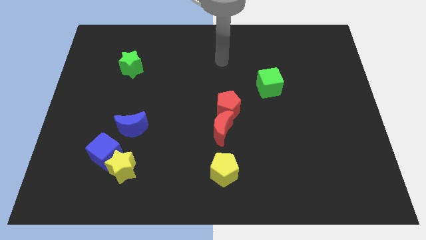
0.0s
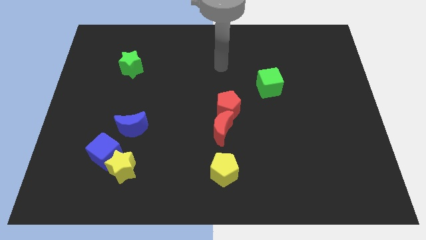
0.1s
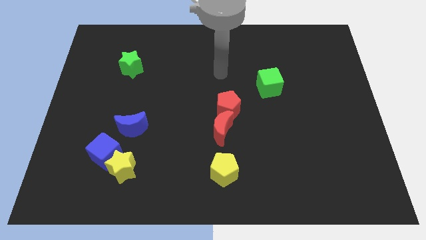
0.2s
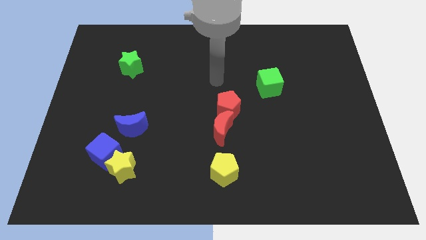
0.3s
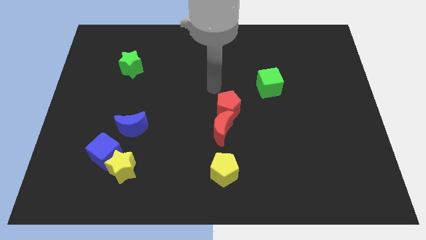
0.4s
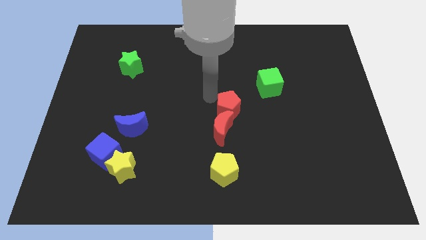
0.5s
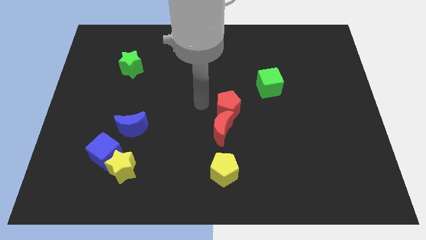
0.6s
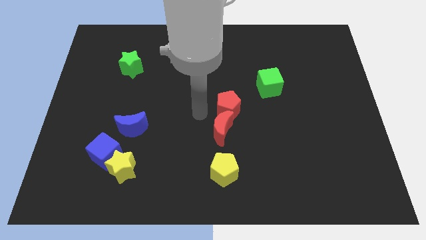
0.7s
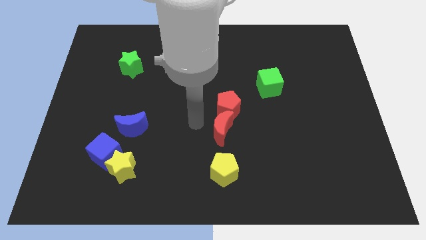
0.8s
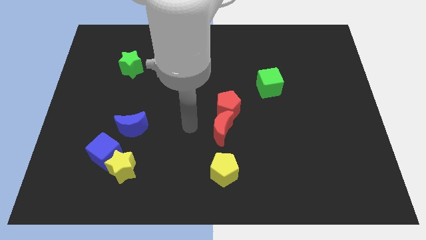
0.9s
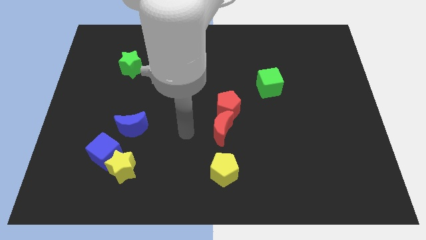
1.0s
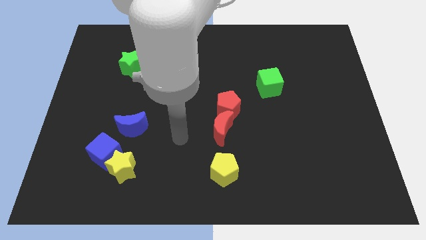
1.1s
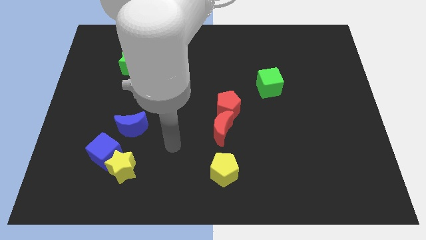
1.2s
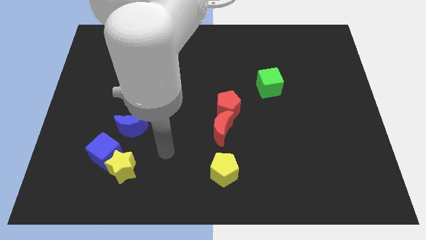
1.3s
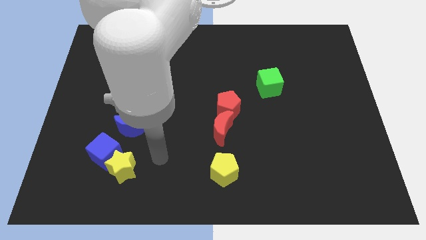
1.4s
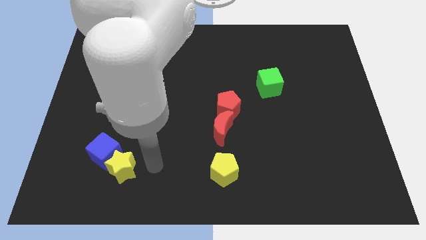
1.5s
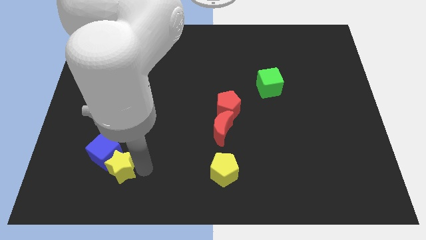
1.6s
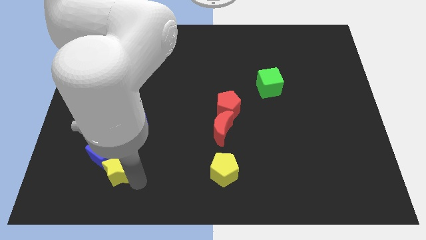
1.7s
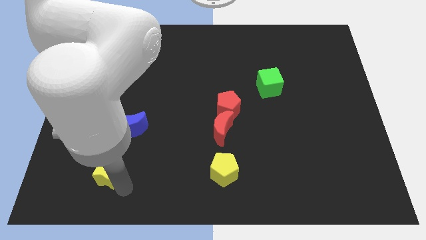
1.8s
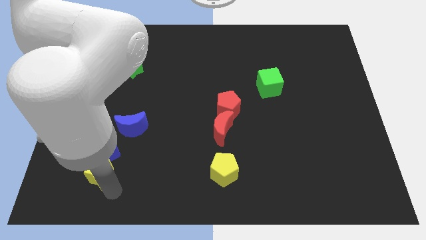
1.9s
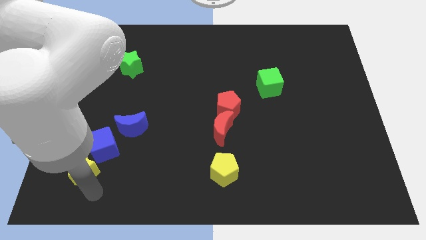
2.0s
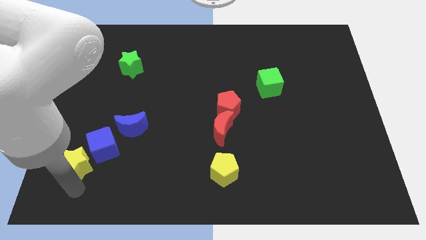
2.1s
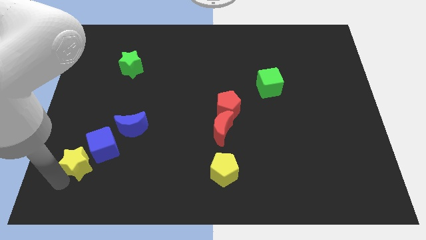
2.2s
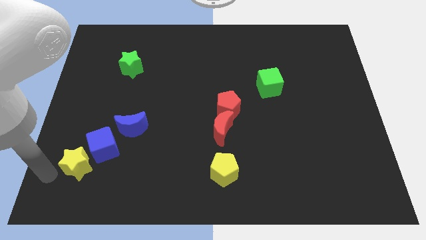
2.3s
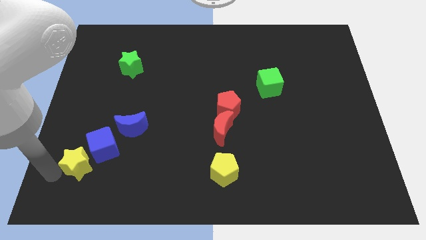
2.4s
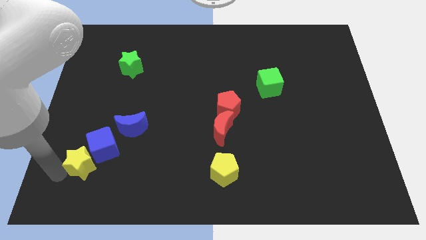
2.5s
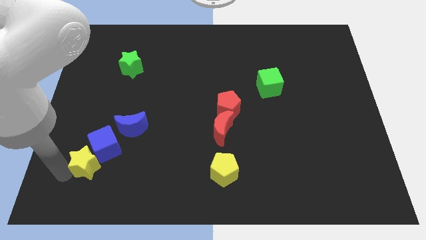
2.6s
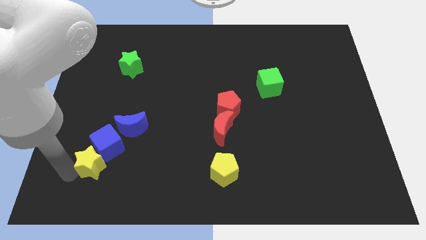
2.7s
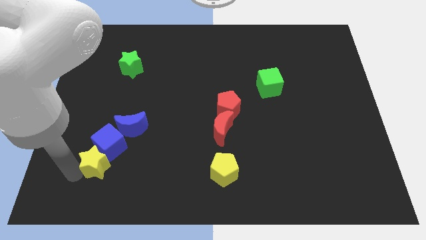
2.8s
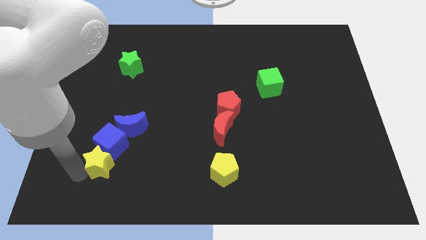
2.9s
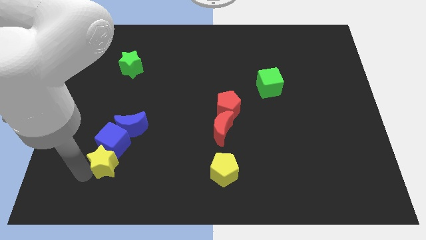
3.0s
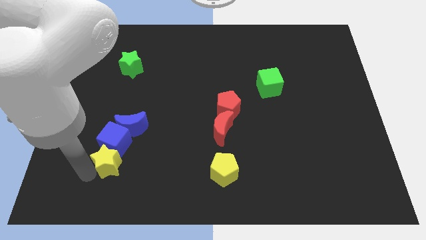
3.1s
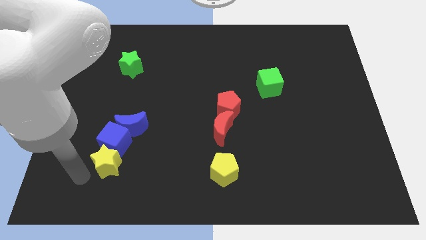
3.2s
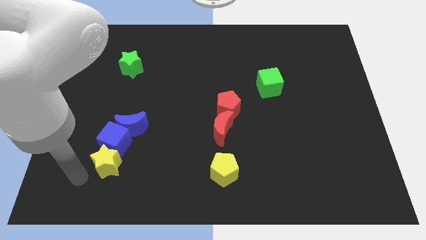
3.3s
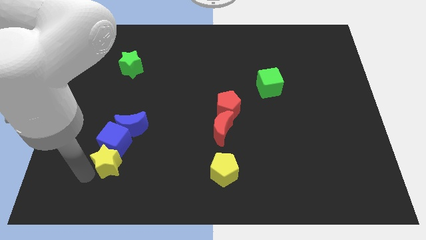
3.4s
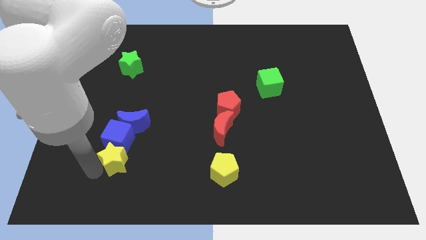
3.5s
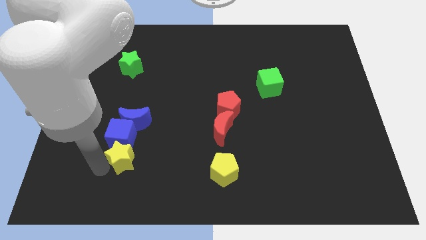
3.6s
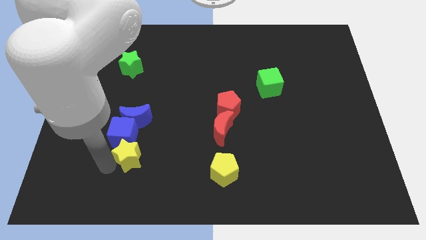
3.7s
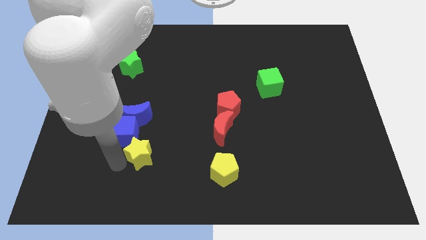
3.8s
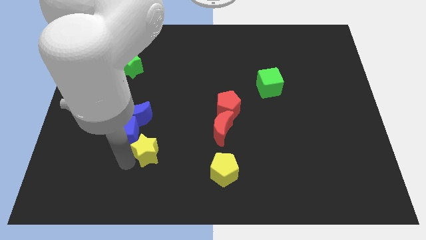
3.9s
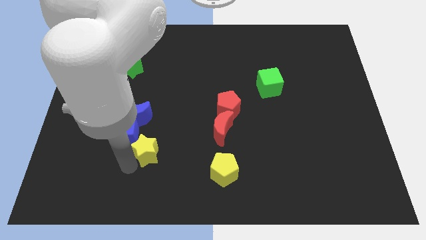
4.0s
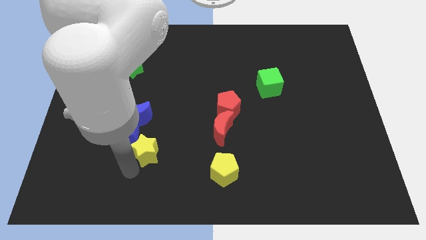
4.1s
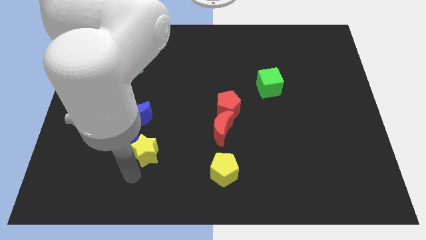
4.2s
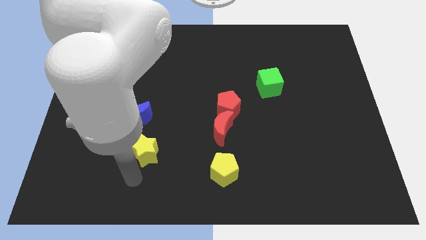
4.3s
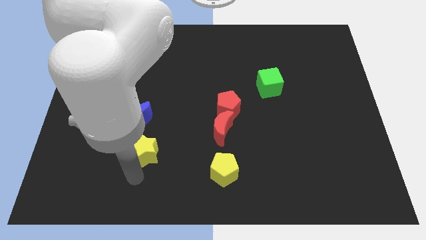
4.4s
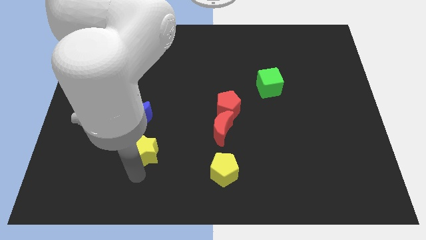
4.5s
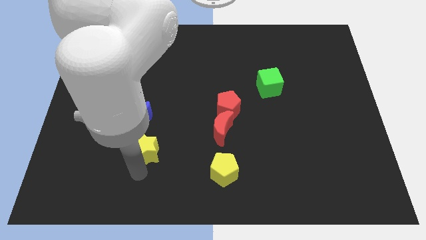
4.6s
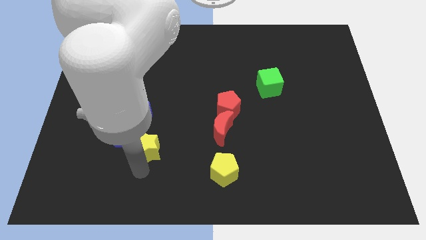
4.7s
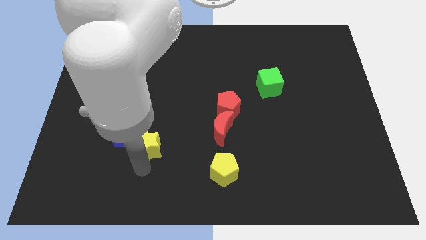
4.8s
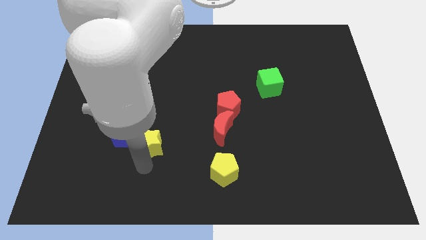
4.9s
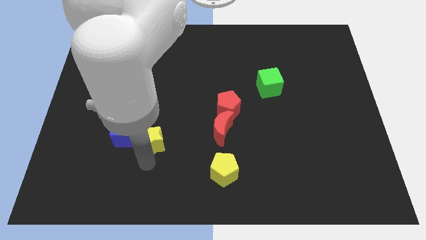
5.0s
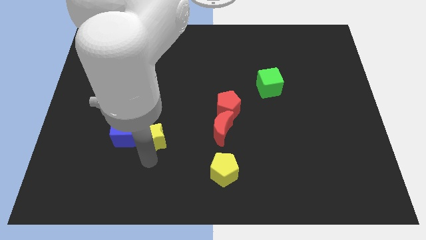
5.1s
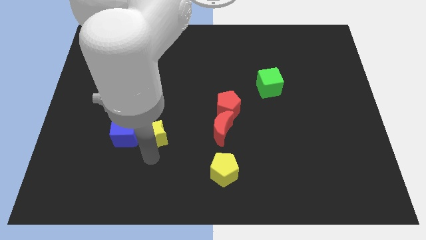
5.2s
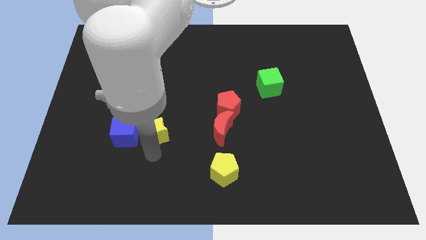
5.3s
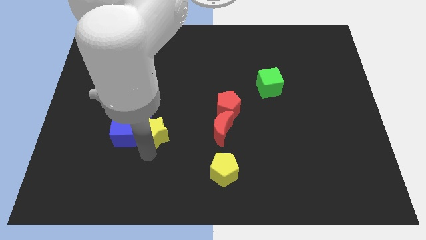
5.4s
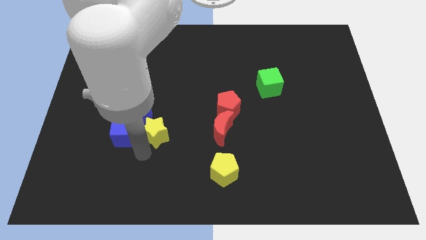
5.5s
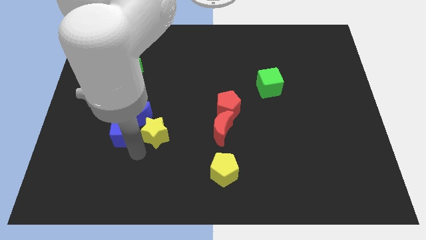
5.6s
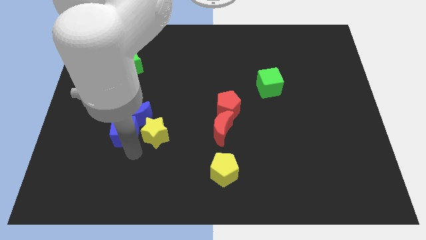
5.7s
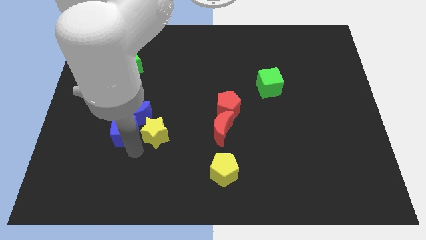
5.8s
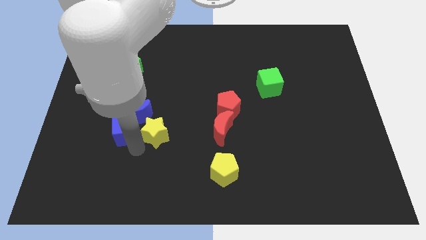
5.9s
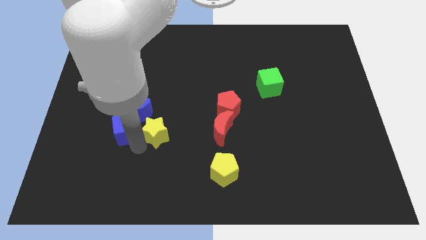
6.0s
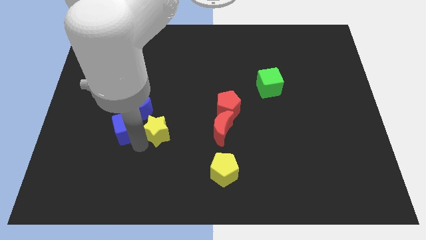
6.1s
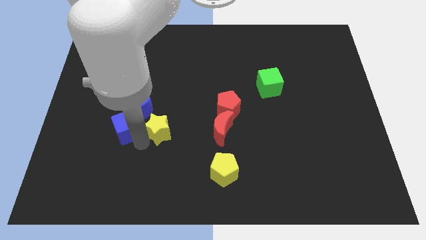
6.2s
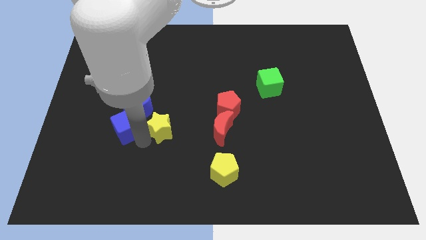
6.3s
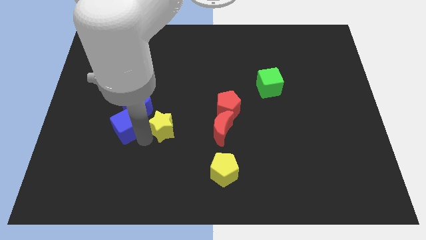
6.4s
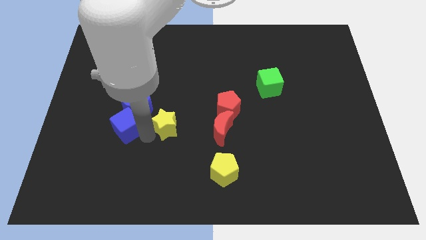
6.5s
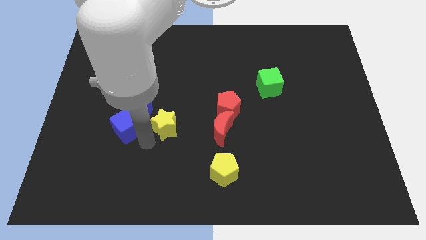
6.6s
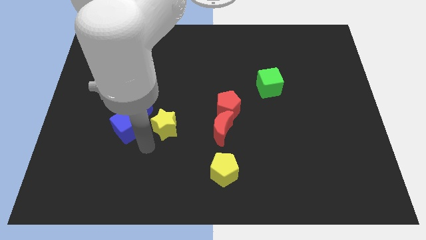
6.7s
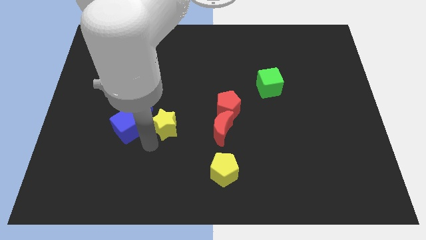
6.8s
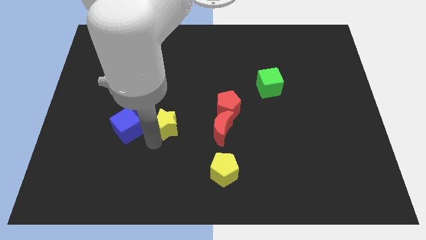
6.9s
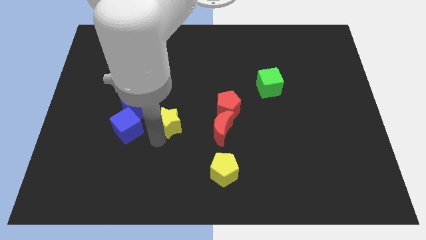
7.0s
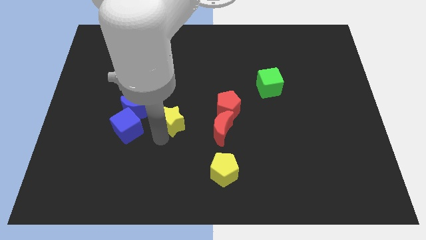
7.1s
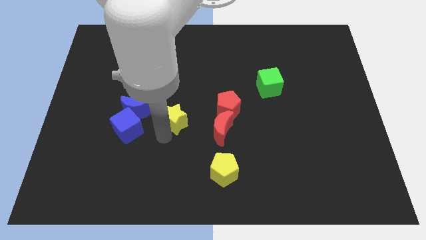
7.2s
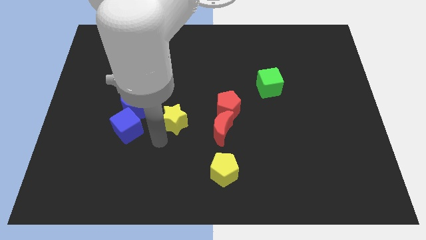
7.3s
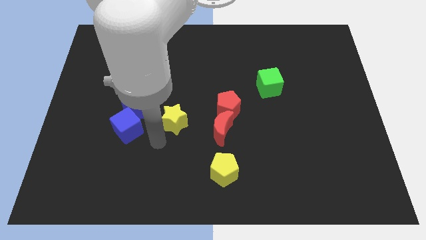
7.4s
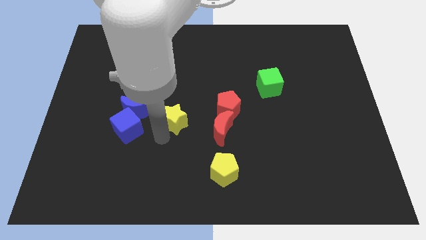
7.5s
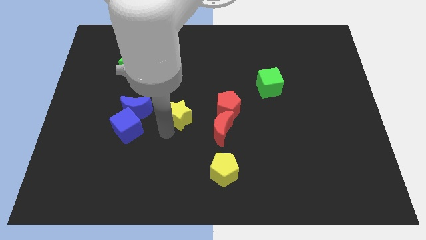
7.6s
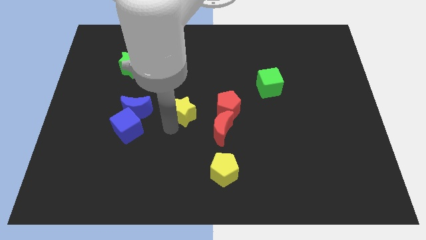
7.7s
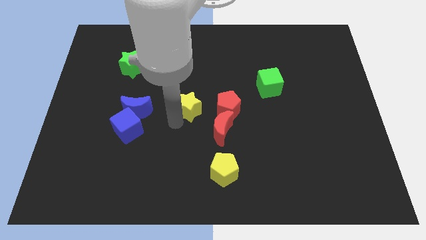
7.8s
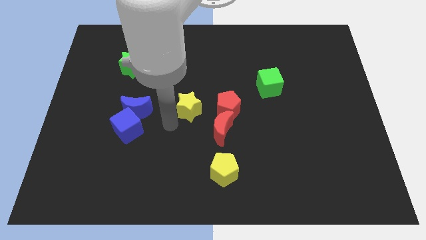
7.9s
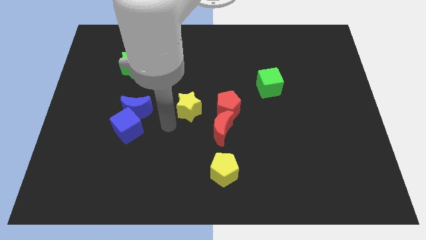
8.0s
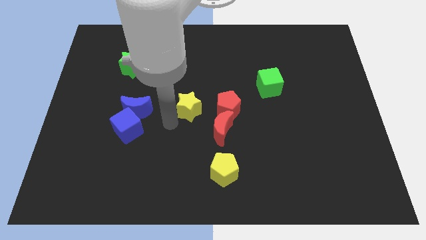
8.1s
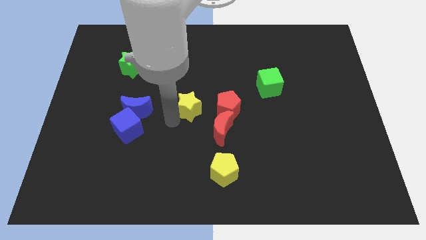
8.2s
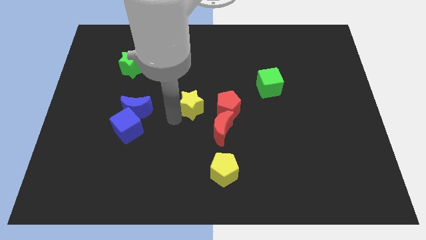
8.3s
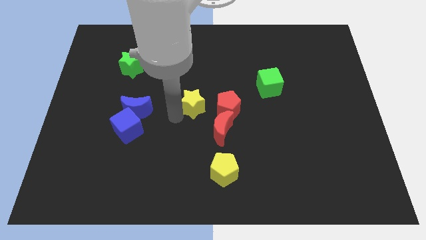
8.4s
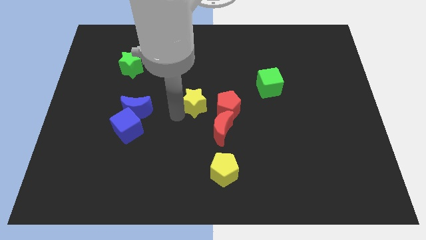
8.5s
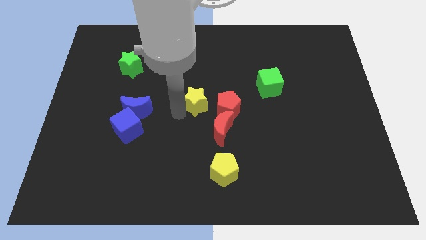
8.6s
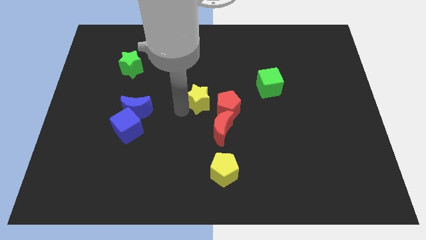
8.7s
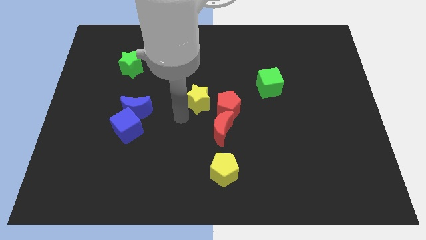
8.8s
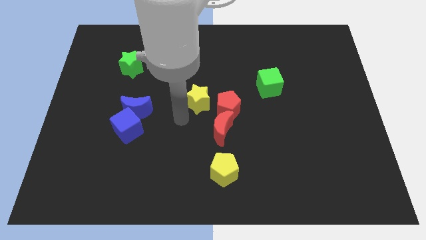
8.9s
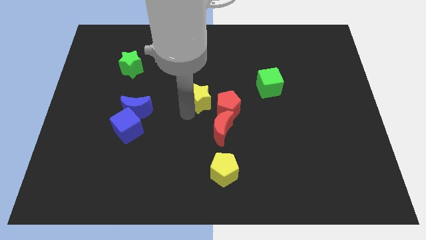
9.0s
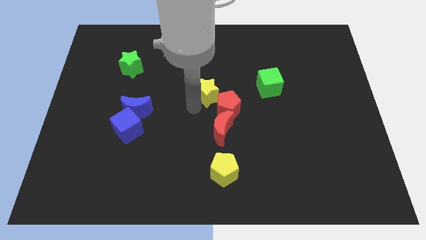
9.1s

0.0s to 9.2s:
move the yellow star to the top side of the red pentagon
